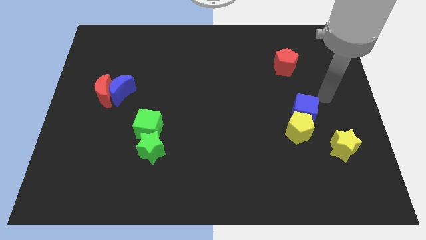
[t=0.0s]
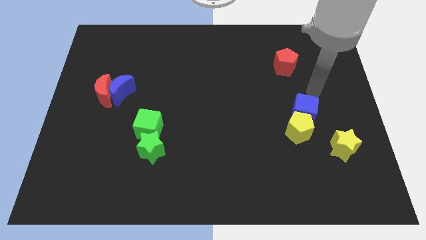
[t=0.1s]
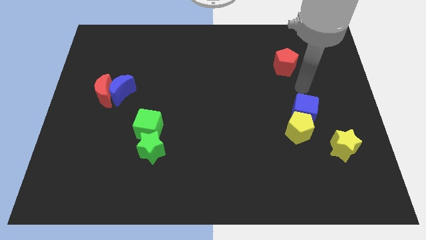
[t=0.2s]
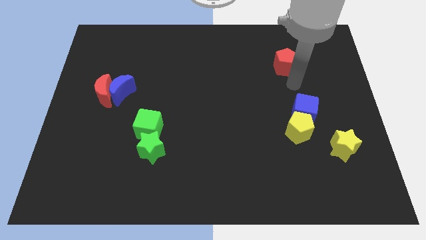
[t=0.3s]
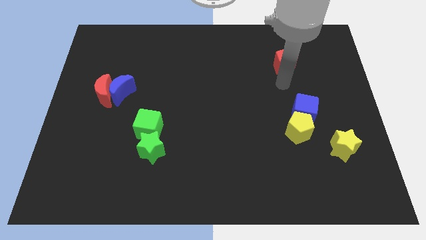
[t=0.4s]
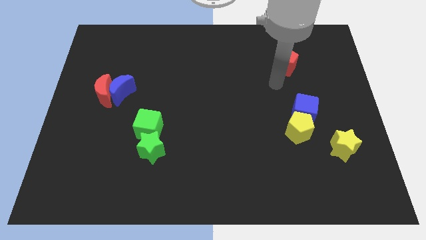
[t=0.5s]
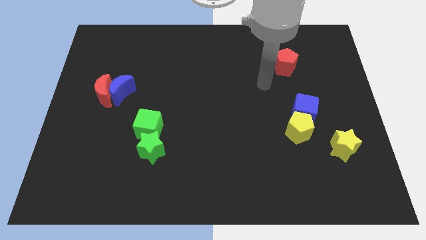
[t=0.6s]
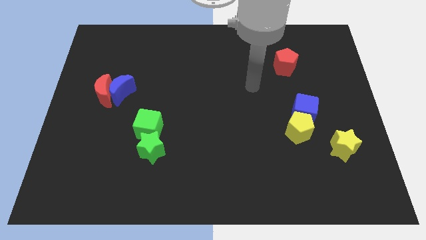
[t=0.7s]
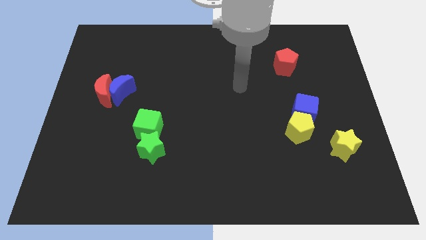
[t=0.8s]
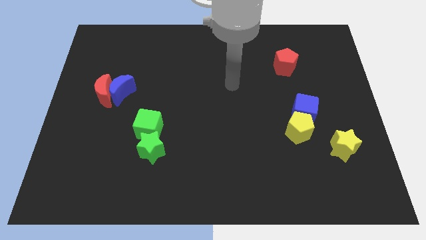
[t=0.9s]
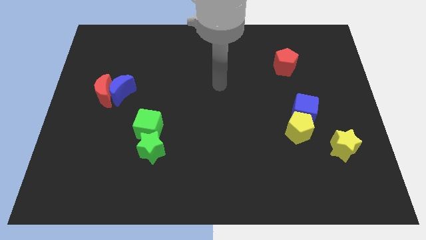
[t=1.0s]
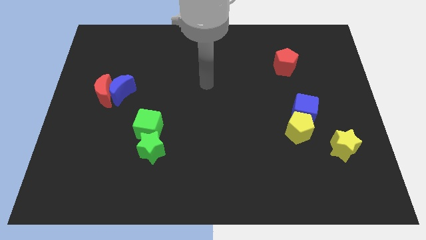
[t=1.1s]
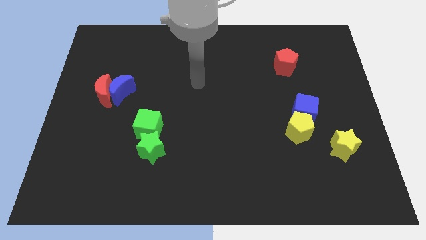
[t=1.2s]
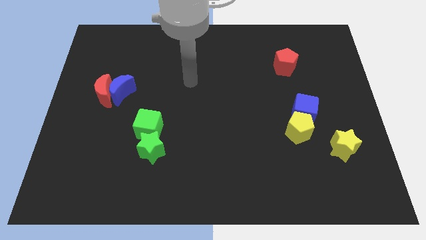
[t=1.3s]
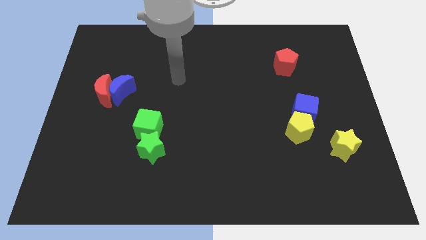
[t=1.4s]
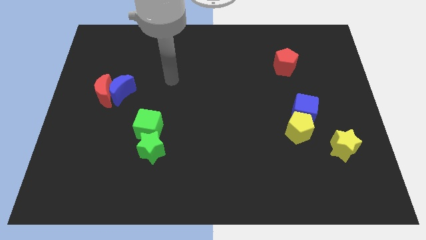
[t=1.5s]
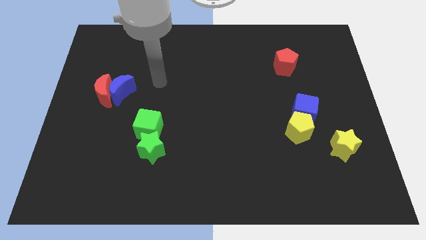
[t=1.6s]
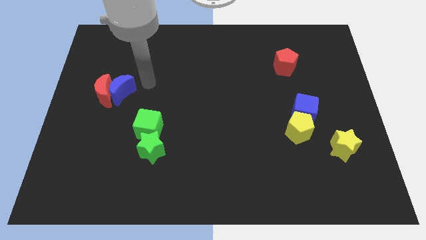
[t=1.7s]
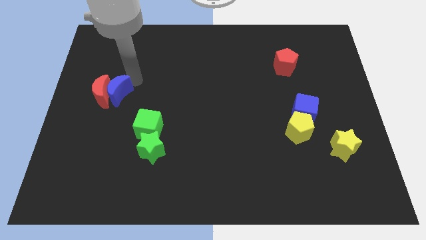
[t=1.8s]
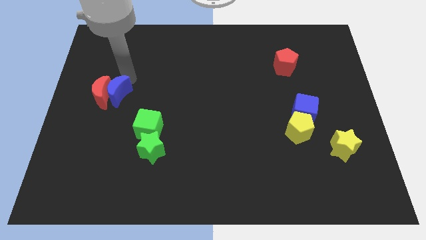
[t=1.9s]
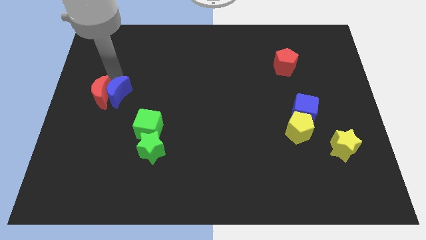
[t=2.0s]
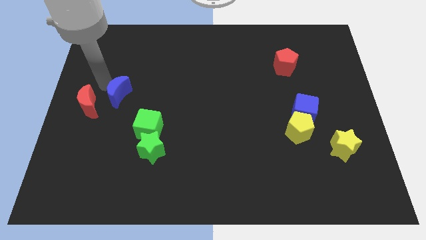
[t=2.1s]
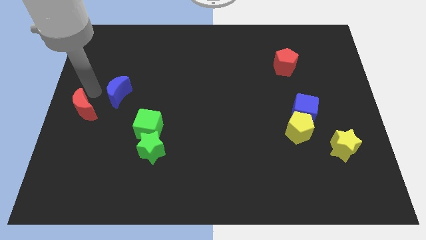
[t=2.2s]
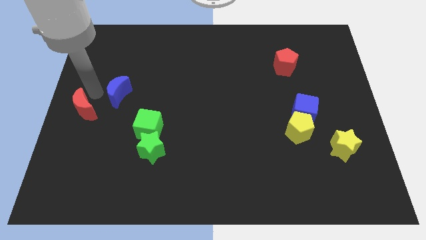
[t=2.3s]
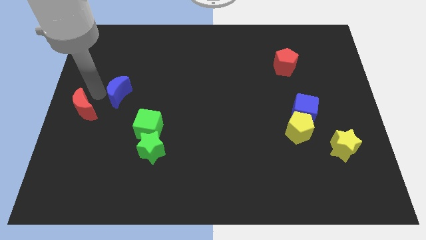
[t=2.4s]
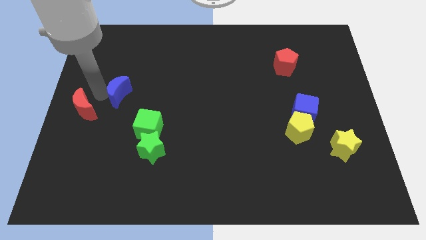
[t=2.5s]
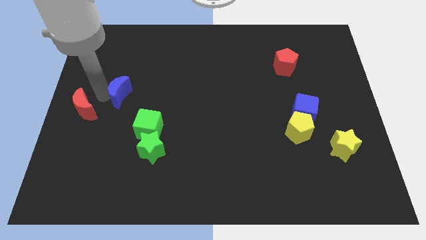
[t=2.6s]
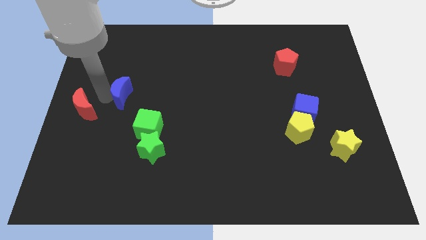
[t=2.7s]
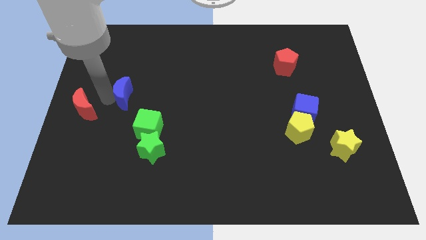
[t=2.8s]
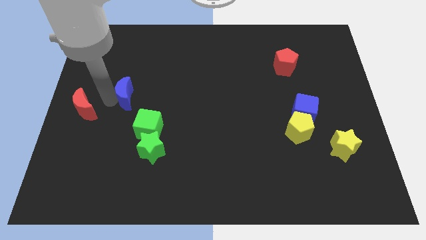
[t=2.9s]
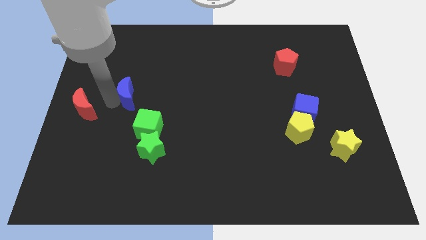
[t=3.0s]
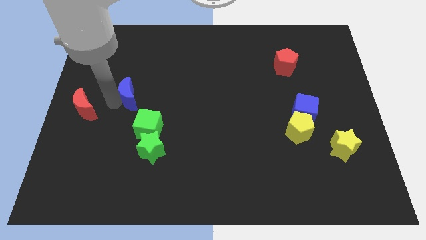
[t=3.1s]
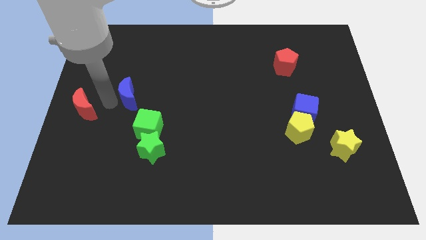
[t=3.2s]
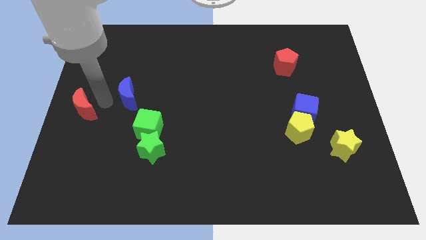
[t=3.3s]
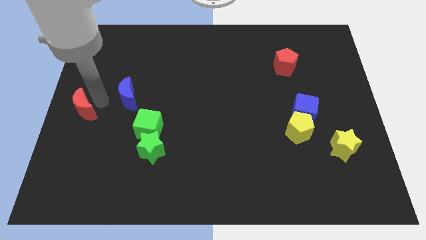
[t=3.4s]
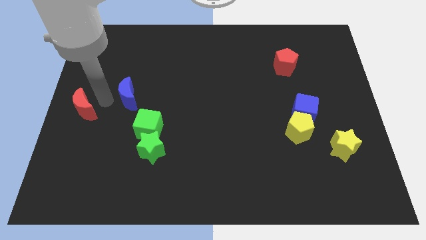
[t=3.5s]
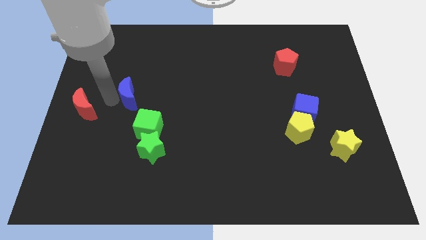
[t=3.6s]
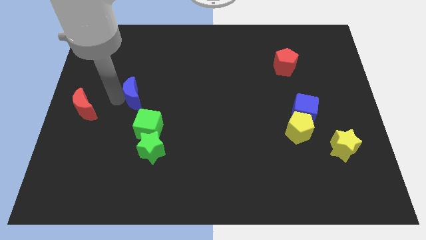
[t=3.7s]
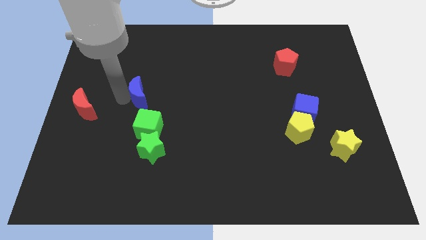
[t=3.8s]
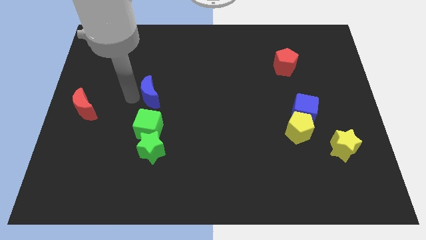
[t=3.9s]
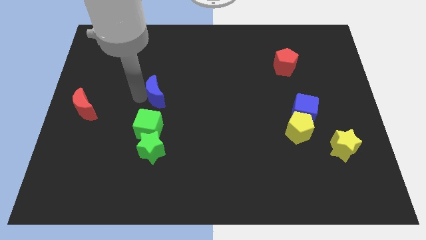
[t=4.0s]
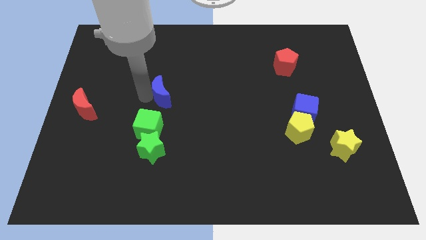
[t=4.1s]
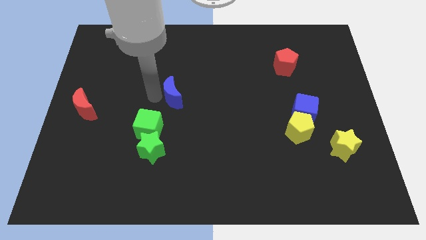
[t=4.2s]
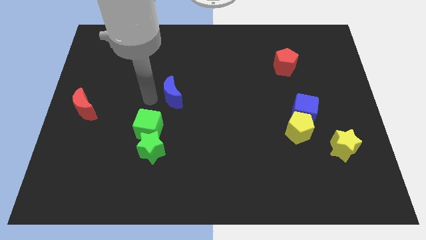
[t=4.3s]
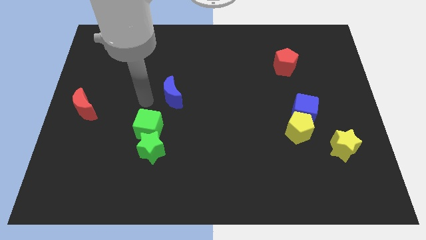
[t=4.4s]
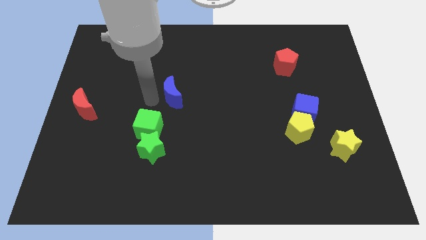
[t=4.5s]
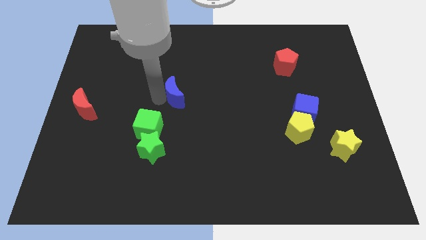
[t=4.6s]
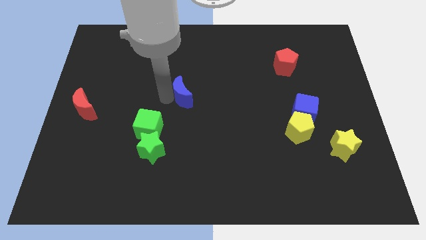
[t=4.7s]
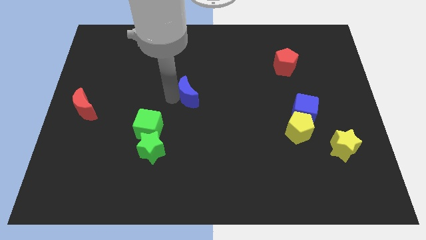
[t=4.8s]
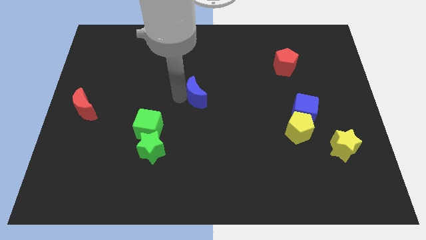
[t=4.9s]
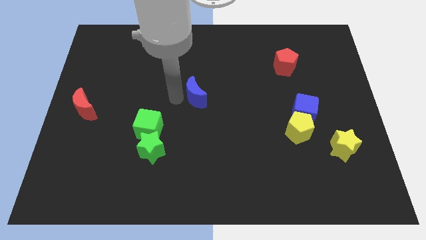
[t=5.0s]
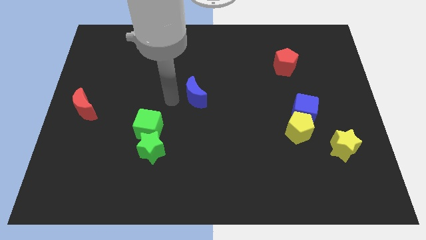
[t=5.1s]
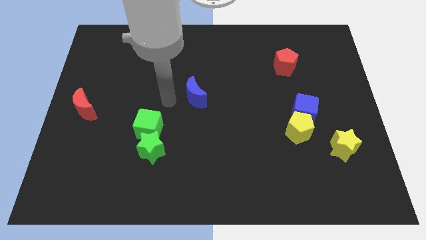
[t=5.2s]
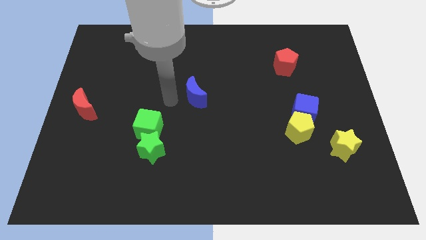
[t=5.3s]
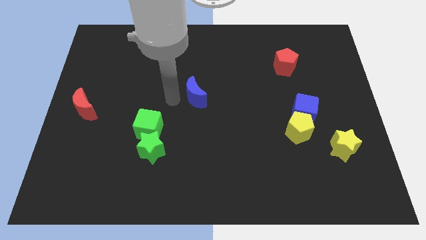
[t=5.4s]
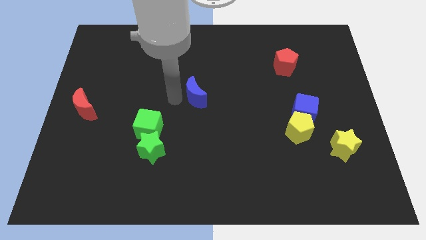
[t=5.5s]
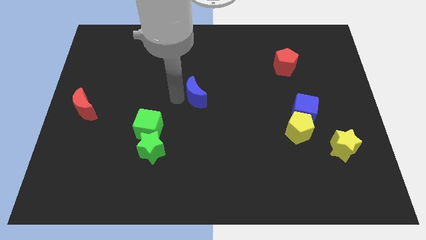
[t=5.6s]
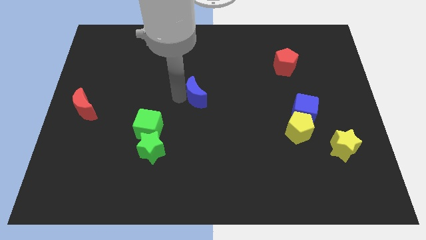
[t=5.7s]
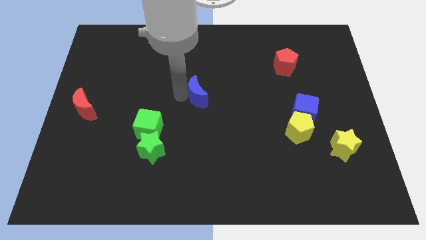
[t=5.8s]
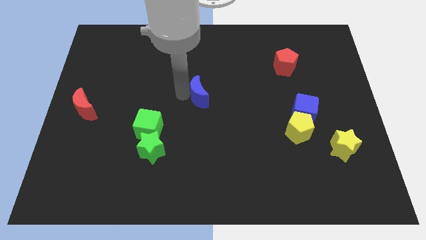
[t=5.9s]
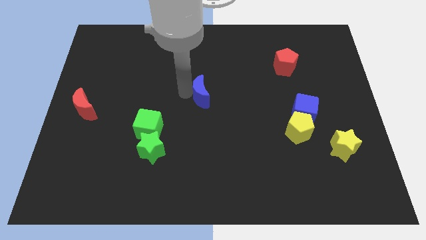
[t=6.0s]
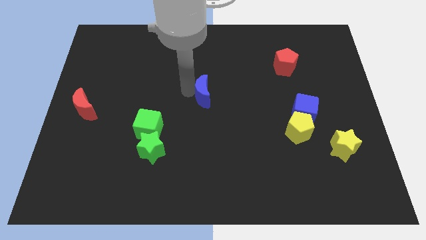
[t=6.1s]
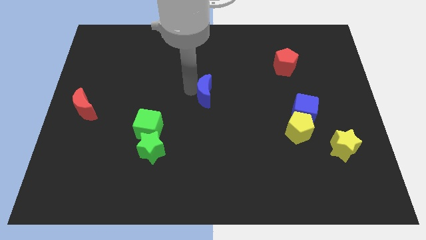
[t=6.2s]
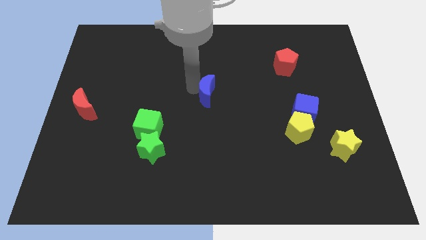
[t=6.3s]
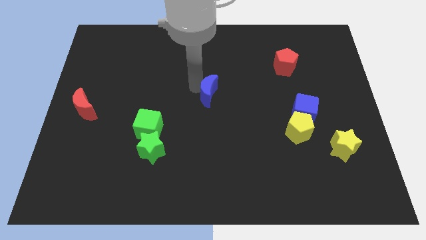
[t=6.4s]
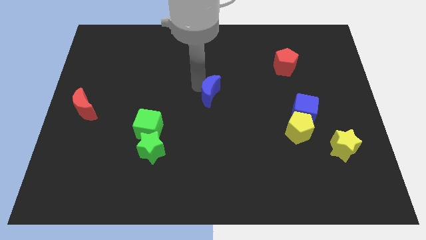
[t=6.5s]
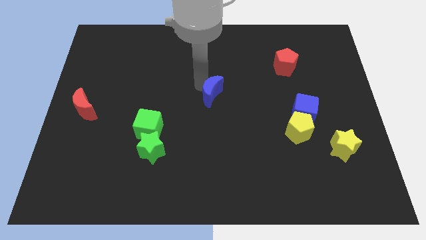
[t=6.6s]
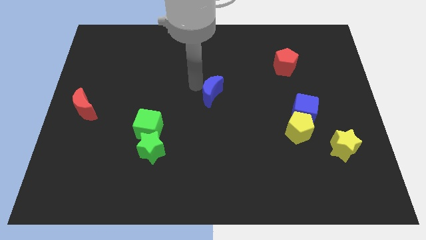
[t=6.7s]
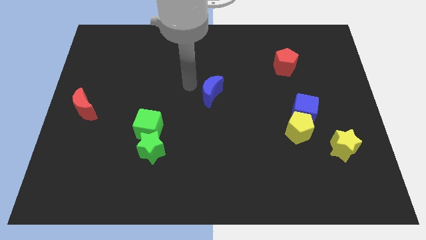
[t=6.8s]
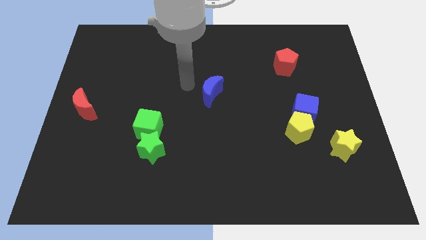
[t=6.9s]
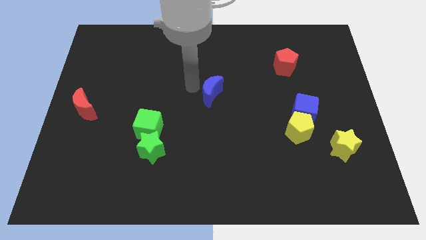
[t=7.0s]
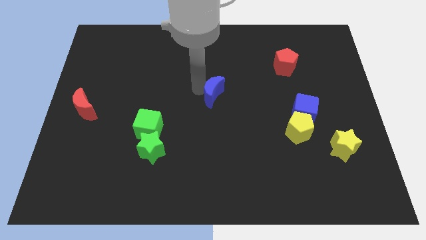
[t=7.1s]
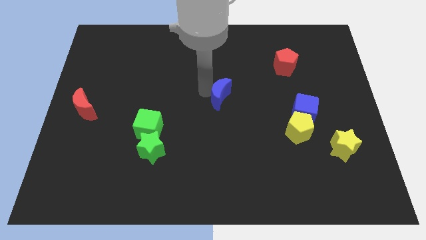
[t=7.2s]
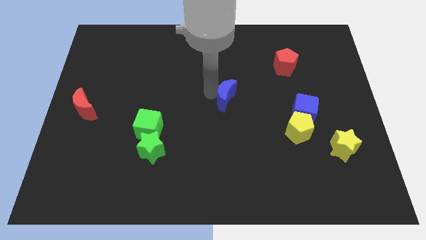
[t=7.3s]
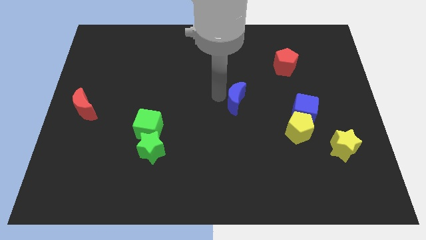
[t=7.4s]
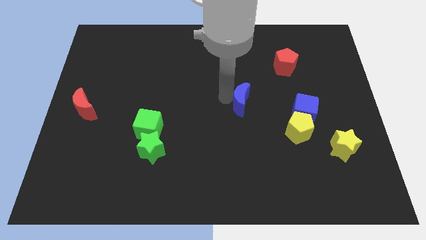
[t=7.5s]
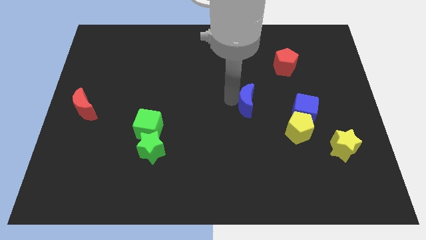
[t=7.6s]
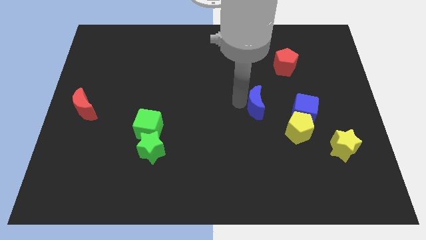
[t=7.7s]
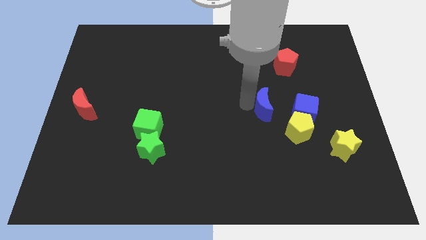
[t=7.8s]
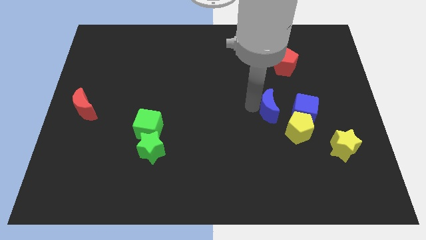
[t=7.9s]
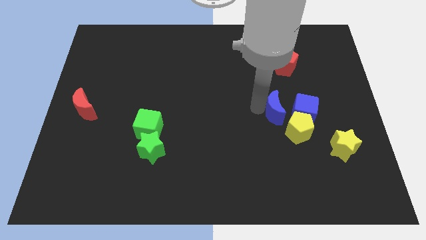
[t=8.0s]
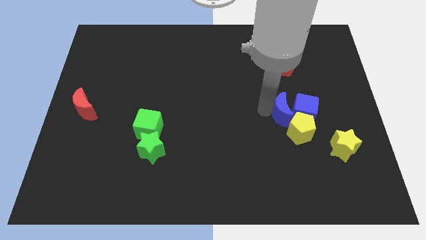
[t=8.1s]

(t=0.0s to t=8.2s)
slide the blue moon close to the blue cube
